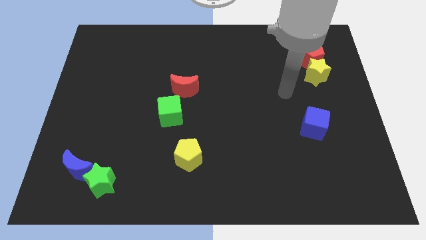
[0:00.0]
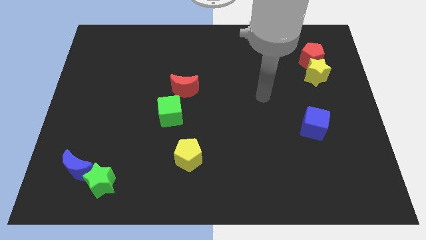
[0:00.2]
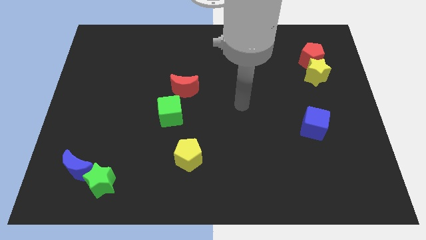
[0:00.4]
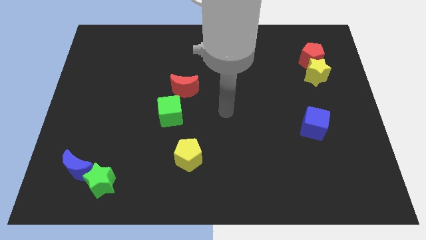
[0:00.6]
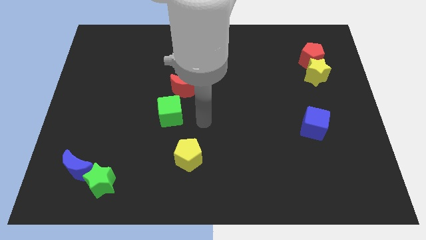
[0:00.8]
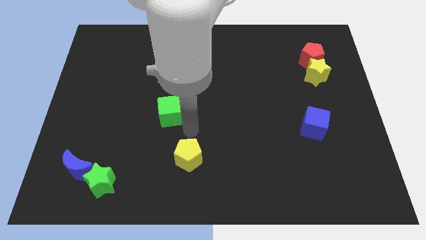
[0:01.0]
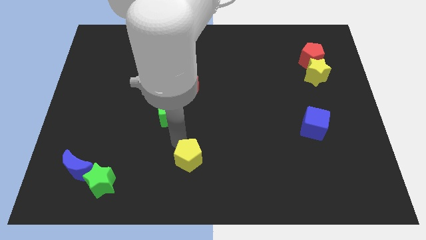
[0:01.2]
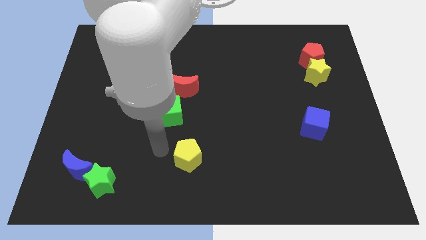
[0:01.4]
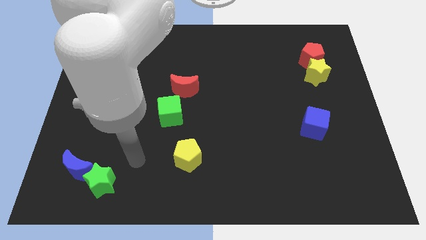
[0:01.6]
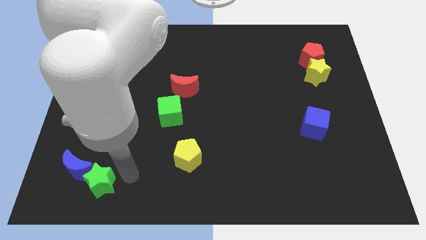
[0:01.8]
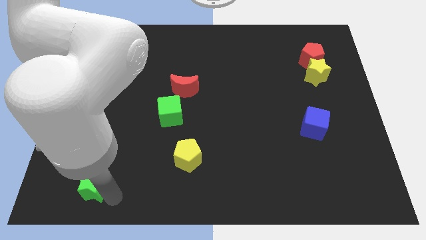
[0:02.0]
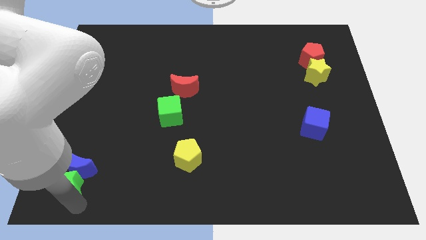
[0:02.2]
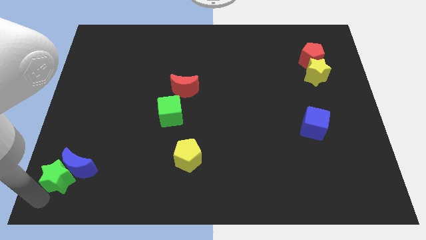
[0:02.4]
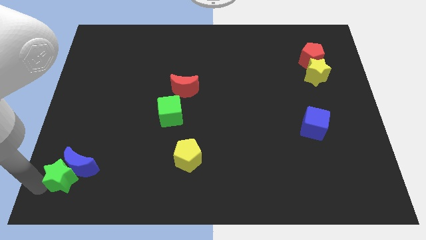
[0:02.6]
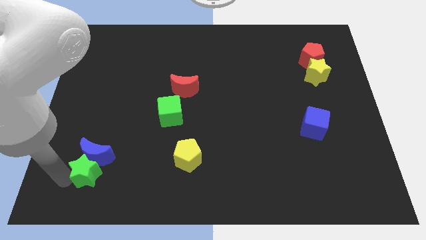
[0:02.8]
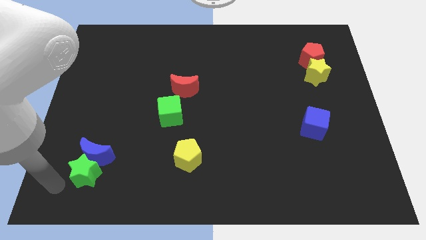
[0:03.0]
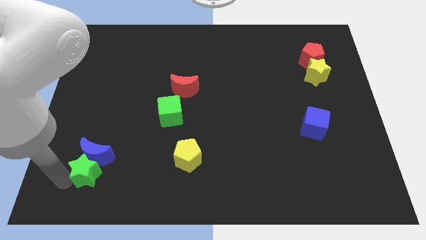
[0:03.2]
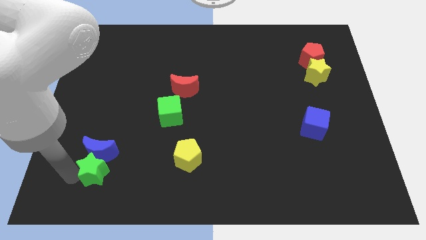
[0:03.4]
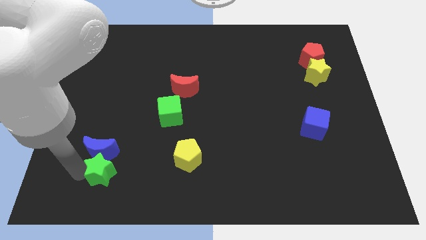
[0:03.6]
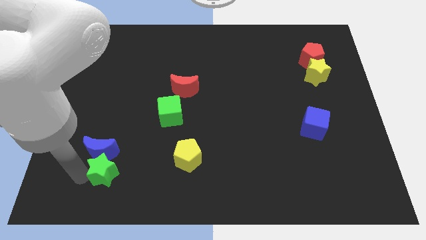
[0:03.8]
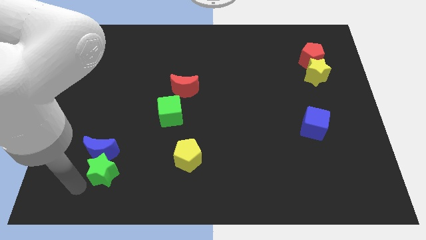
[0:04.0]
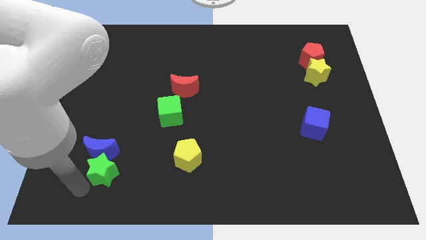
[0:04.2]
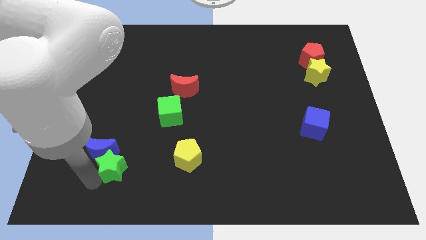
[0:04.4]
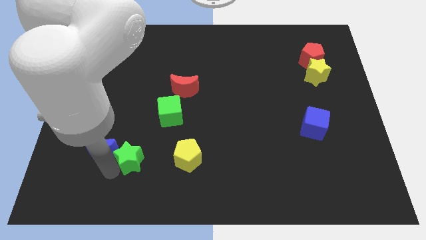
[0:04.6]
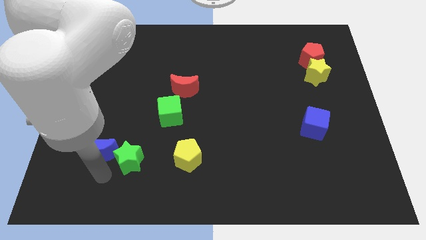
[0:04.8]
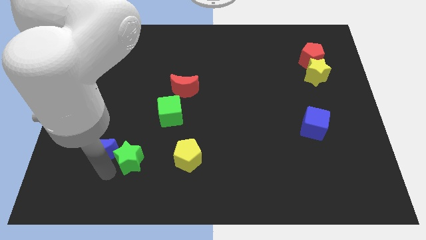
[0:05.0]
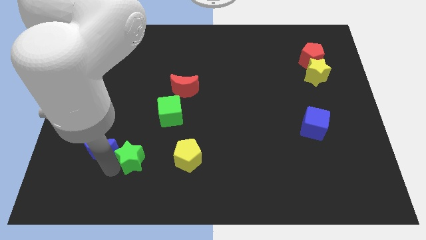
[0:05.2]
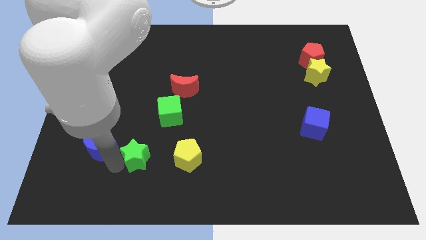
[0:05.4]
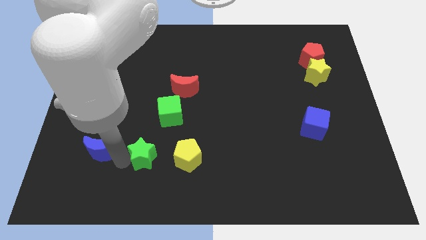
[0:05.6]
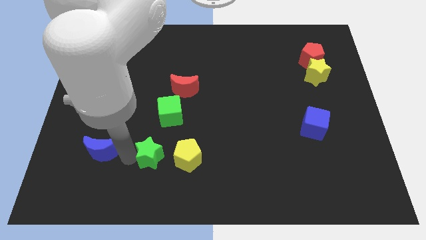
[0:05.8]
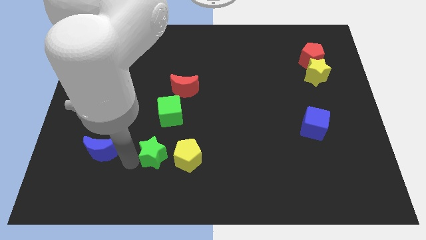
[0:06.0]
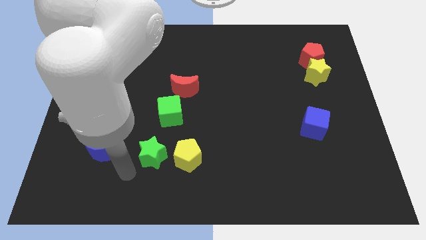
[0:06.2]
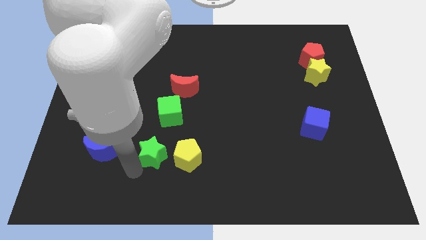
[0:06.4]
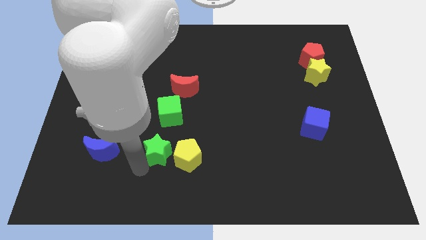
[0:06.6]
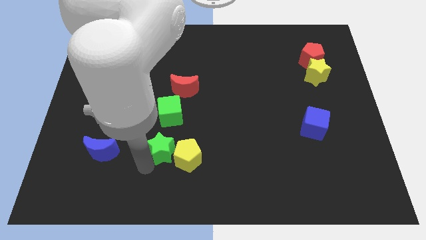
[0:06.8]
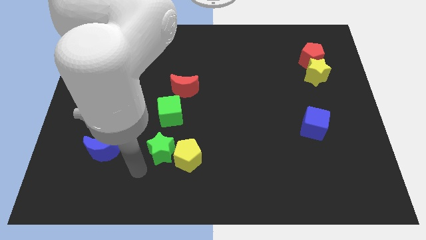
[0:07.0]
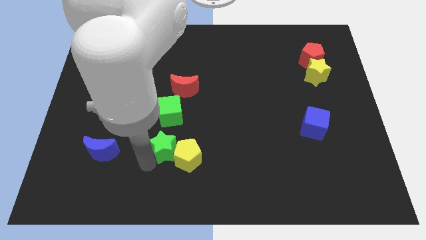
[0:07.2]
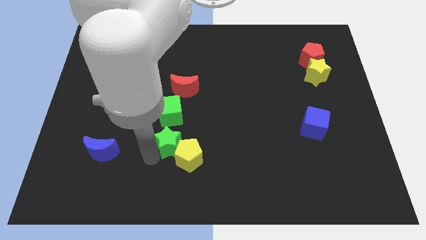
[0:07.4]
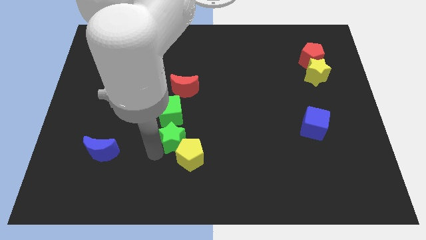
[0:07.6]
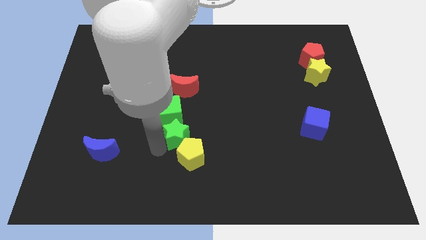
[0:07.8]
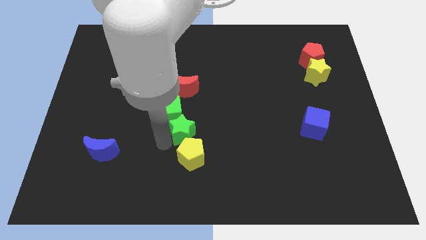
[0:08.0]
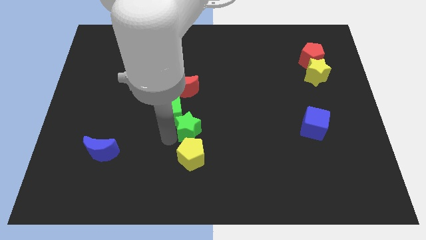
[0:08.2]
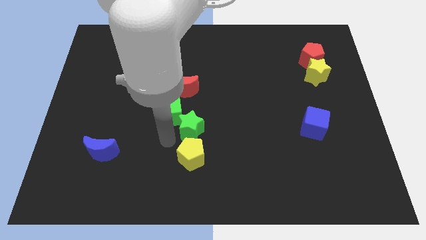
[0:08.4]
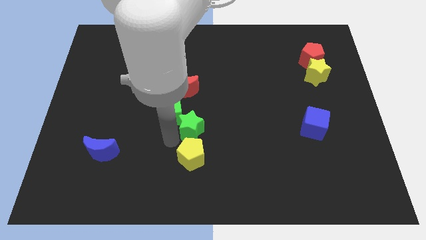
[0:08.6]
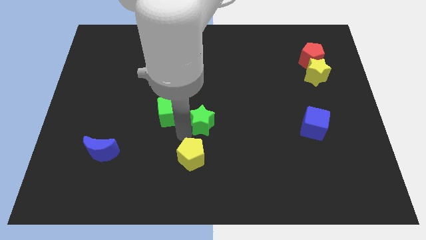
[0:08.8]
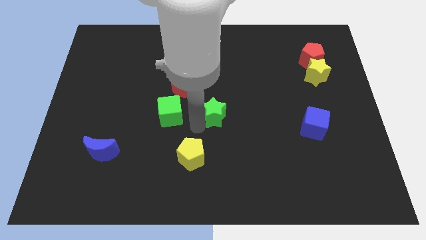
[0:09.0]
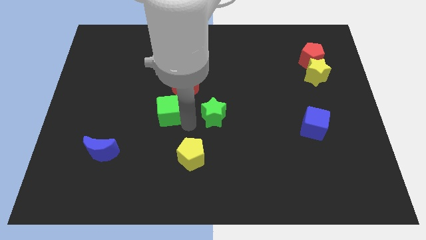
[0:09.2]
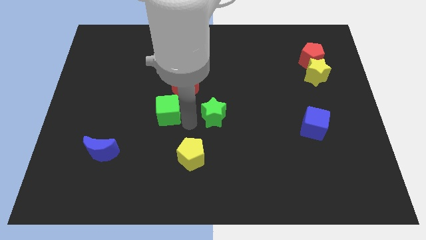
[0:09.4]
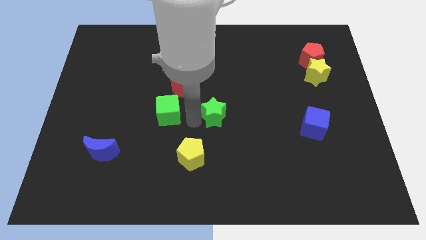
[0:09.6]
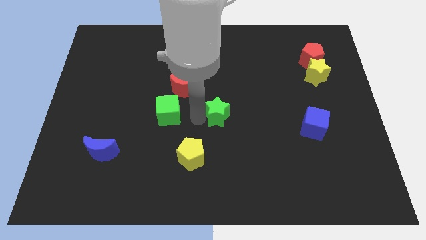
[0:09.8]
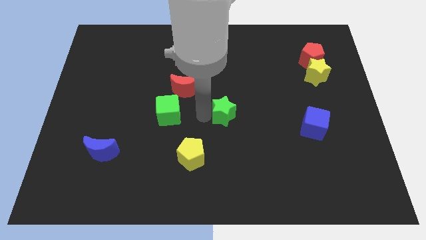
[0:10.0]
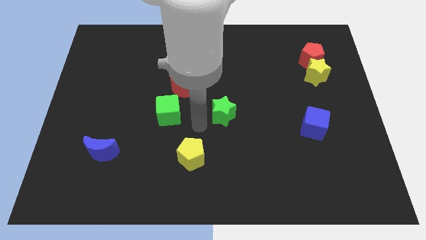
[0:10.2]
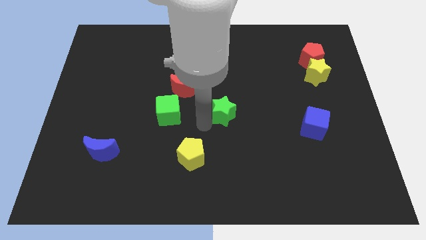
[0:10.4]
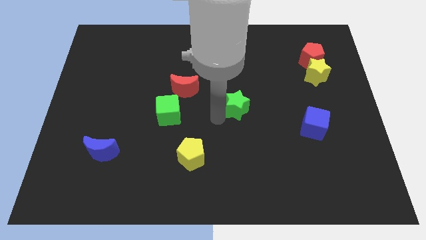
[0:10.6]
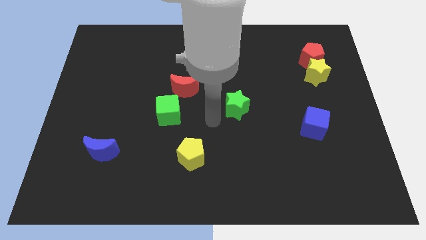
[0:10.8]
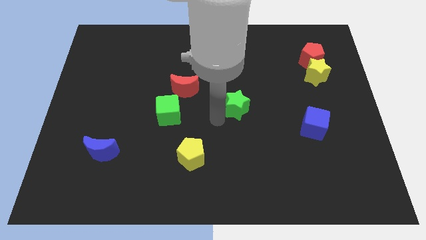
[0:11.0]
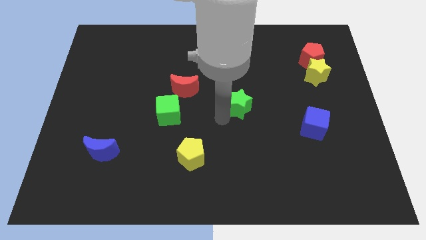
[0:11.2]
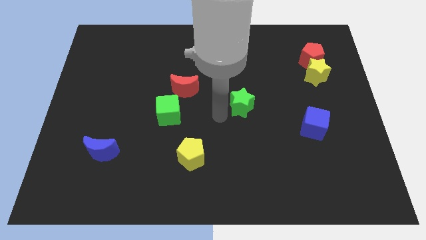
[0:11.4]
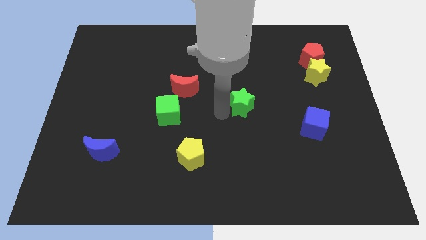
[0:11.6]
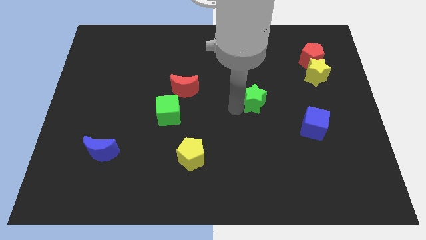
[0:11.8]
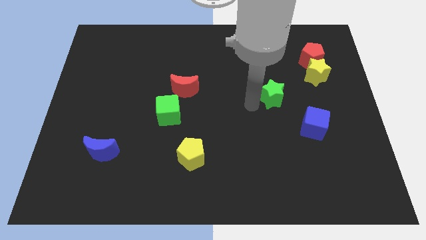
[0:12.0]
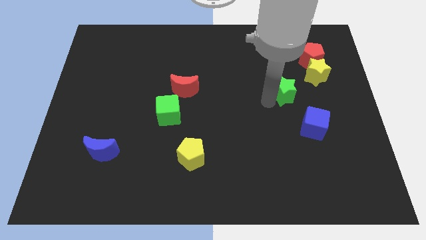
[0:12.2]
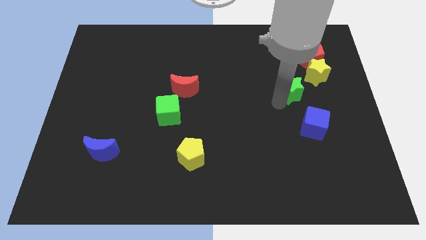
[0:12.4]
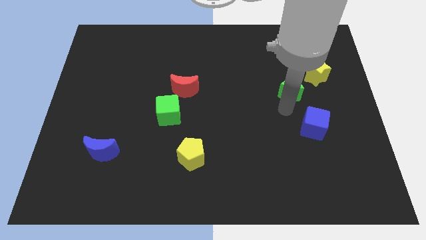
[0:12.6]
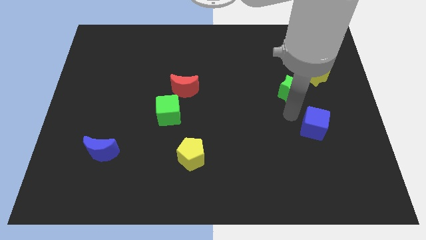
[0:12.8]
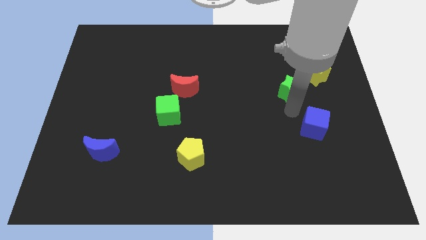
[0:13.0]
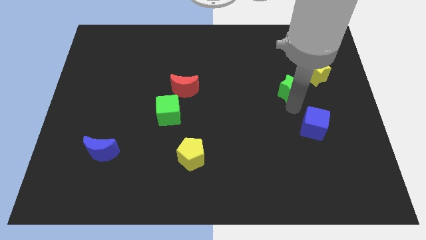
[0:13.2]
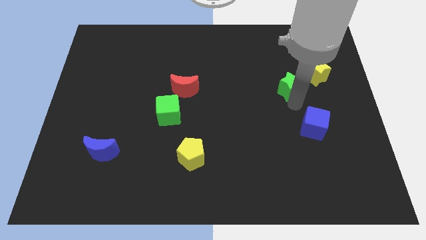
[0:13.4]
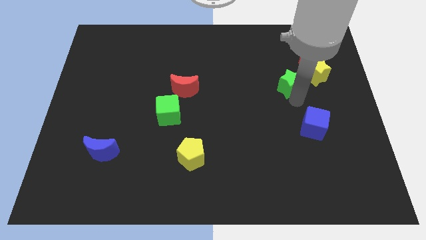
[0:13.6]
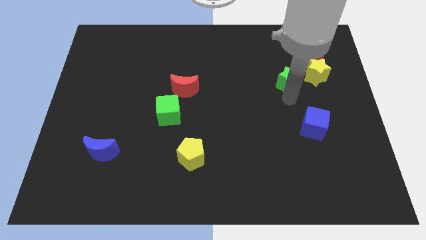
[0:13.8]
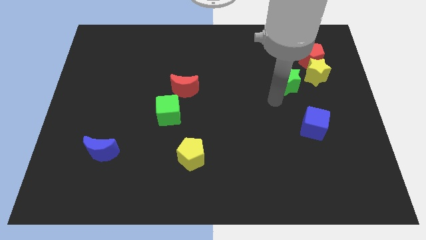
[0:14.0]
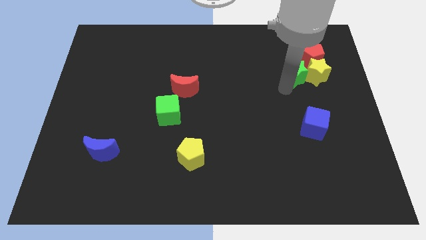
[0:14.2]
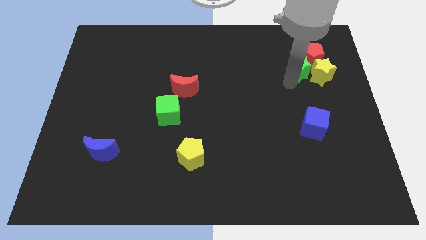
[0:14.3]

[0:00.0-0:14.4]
push the green star close to the red pentagon

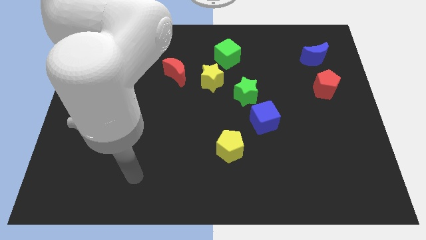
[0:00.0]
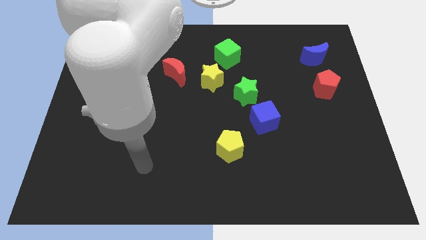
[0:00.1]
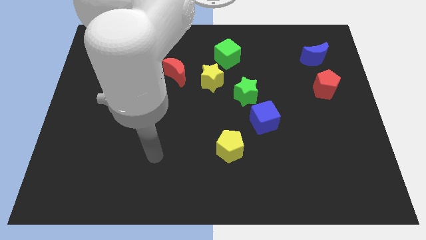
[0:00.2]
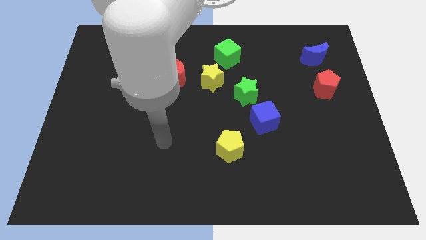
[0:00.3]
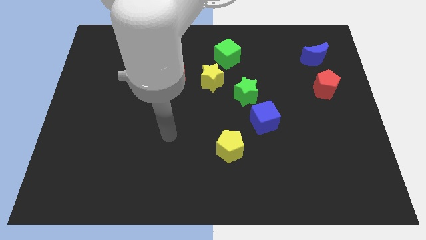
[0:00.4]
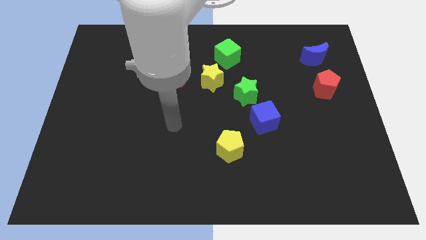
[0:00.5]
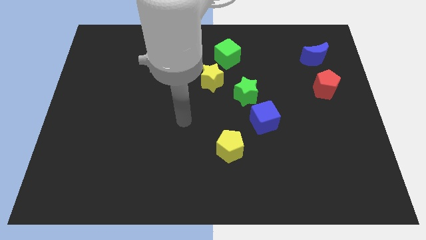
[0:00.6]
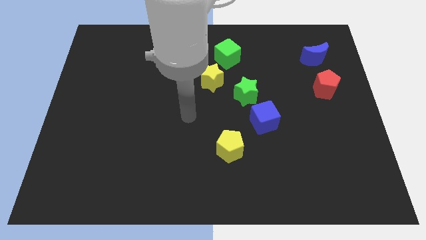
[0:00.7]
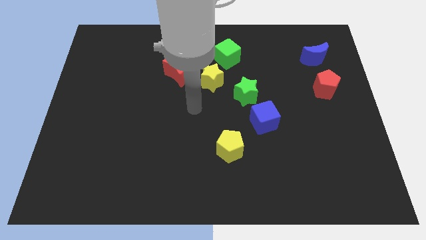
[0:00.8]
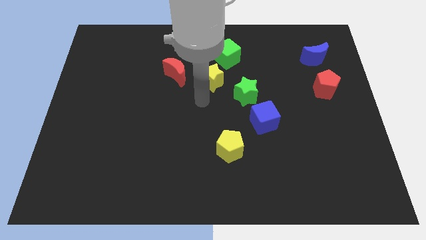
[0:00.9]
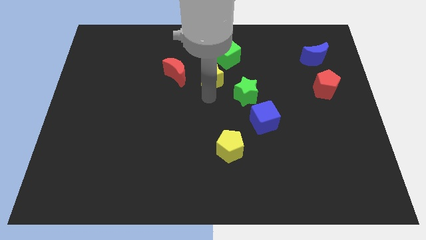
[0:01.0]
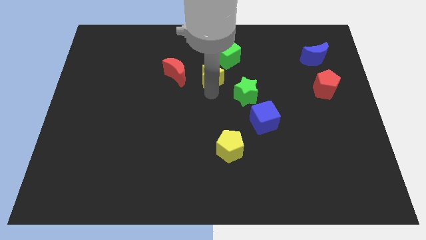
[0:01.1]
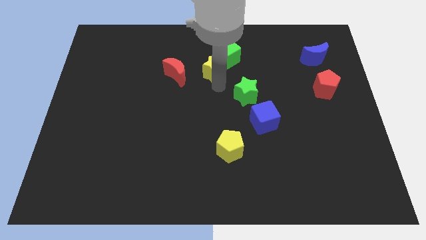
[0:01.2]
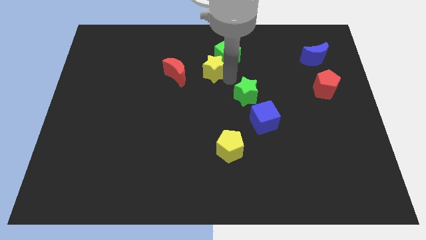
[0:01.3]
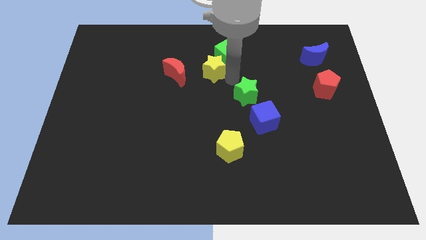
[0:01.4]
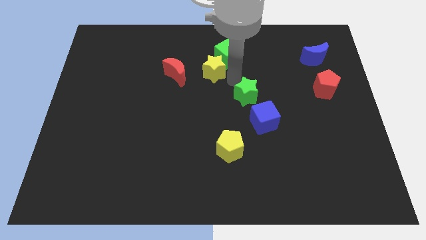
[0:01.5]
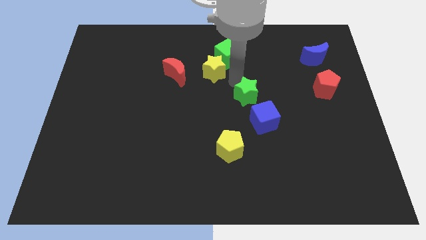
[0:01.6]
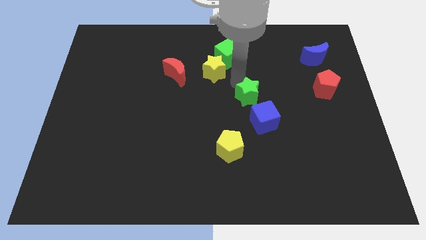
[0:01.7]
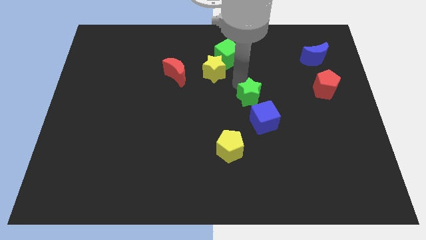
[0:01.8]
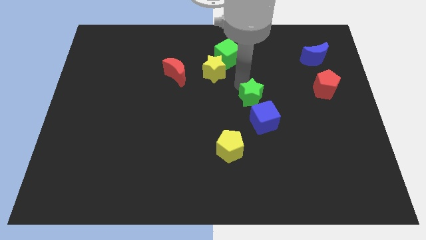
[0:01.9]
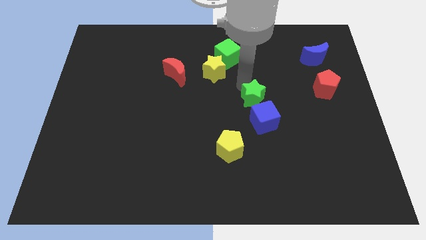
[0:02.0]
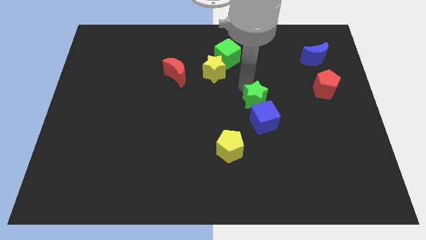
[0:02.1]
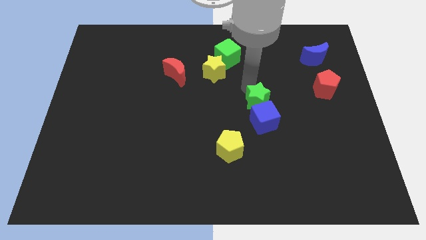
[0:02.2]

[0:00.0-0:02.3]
push the green star next to the blue cube
